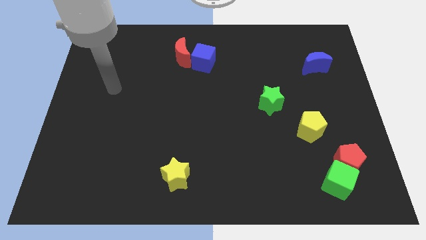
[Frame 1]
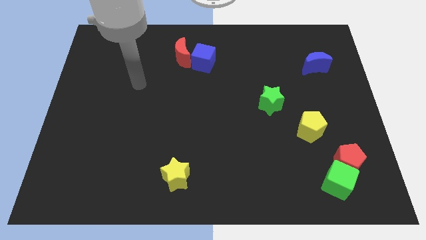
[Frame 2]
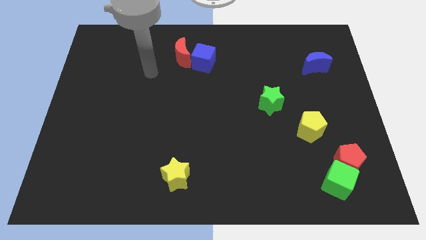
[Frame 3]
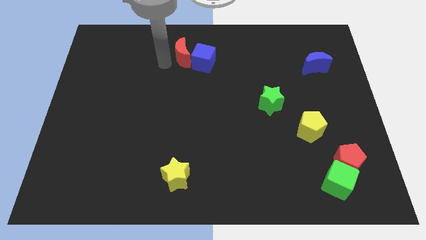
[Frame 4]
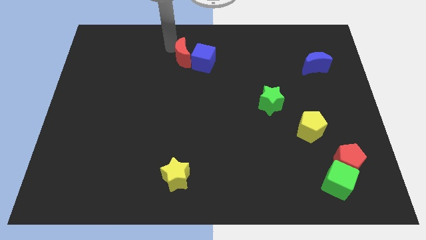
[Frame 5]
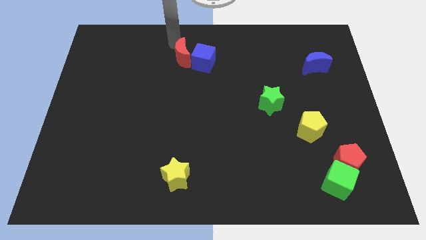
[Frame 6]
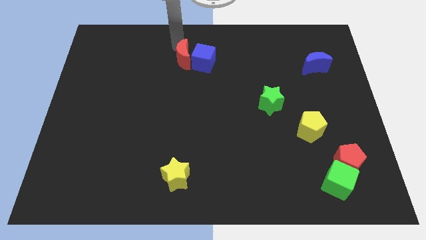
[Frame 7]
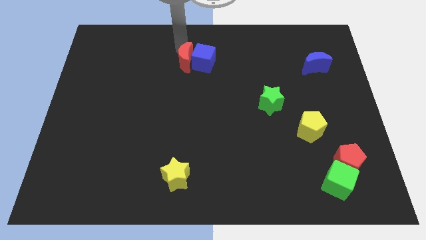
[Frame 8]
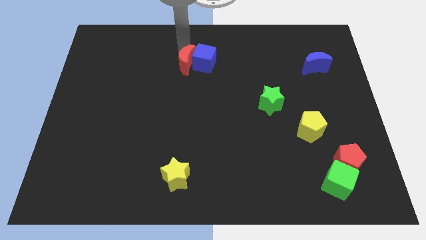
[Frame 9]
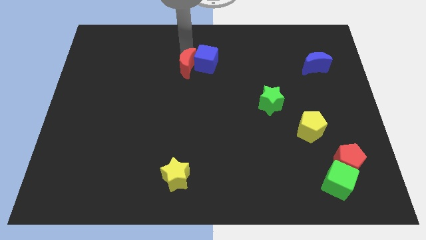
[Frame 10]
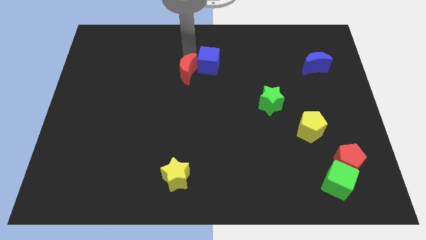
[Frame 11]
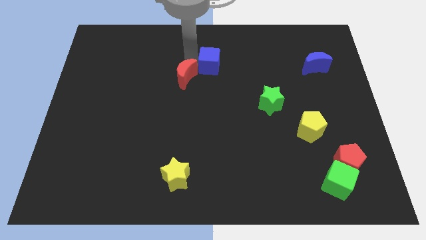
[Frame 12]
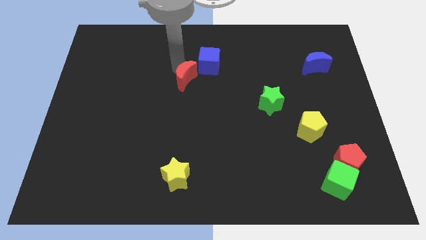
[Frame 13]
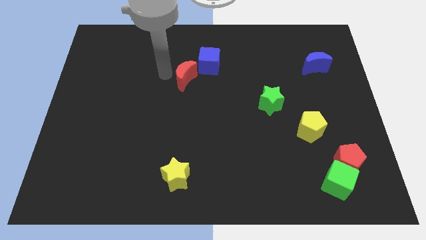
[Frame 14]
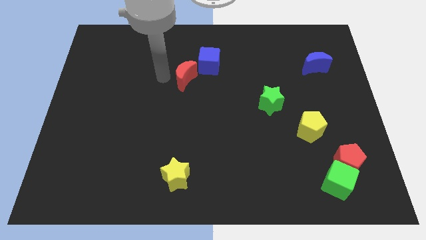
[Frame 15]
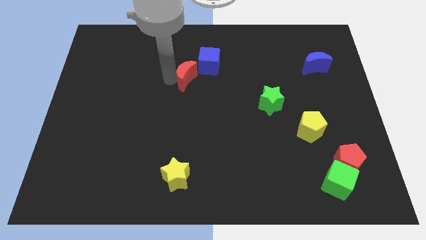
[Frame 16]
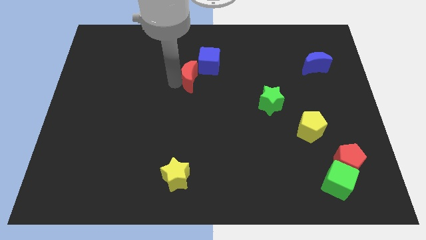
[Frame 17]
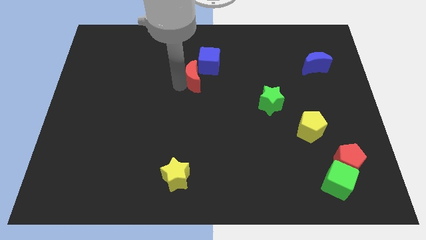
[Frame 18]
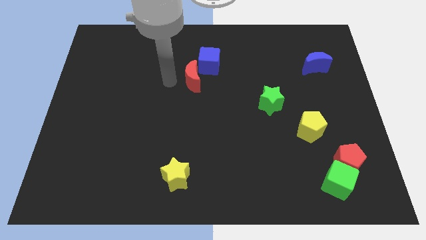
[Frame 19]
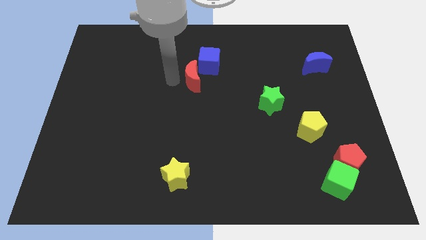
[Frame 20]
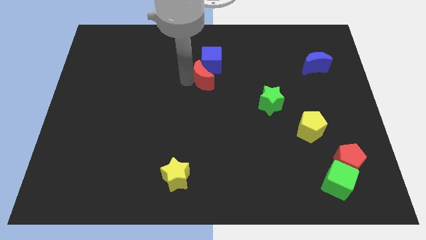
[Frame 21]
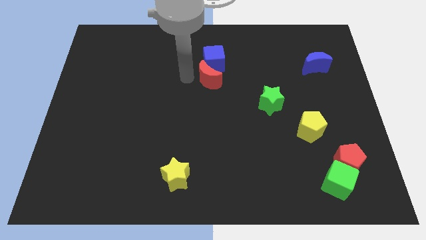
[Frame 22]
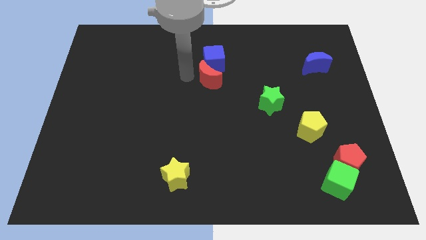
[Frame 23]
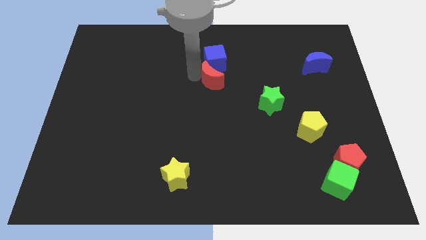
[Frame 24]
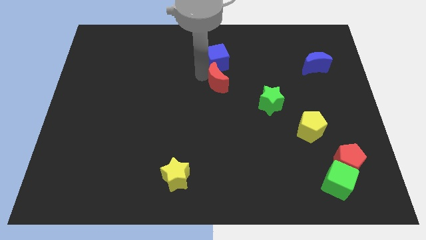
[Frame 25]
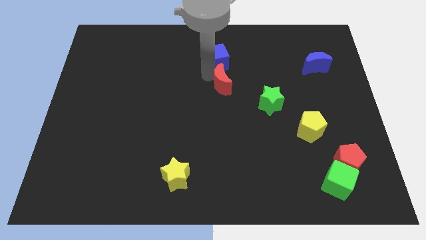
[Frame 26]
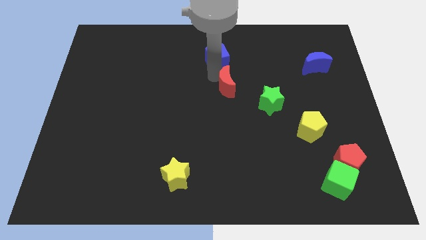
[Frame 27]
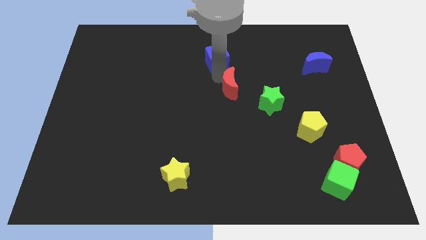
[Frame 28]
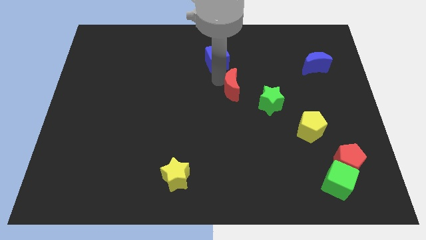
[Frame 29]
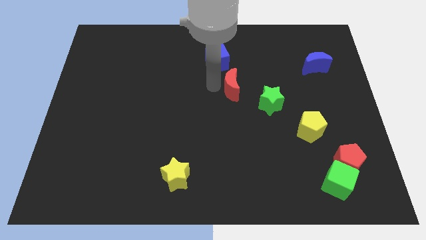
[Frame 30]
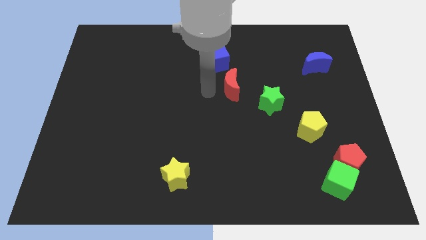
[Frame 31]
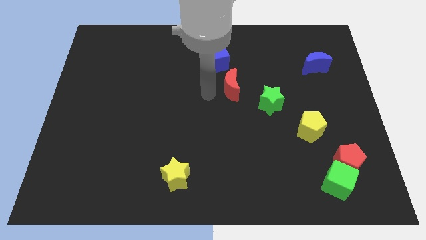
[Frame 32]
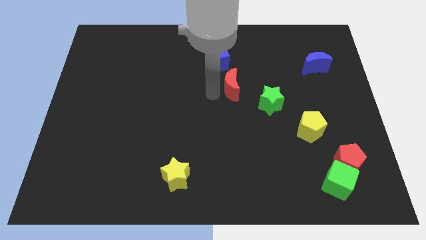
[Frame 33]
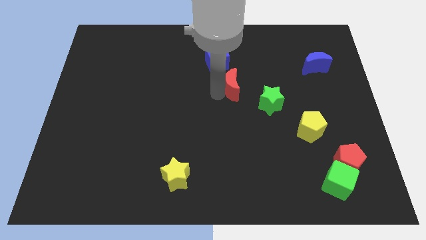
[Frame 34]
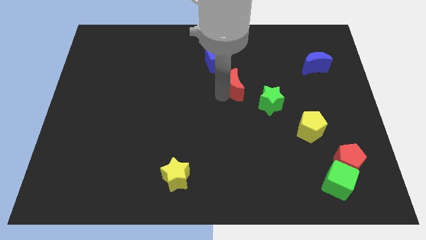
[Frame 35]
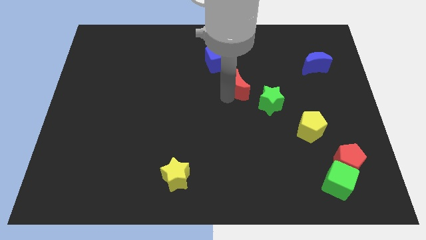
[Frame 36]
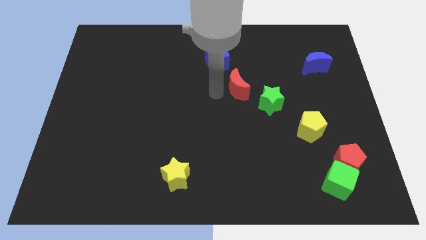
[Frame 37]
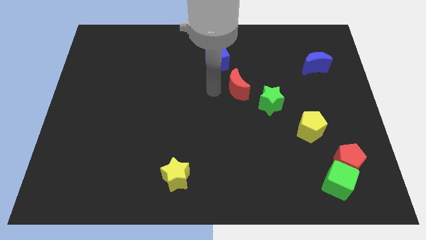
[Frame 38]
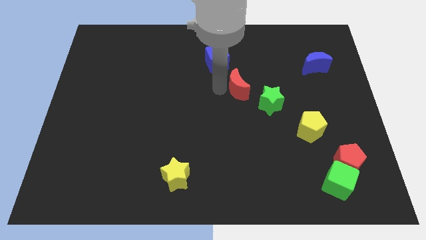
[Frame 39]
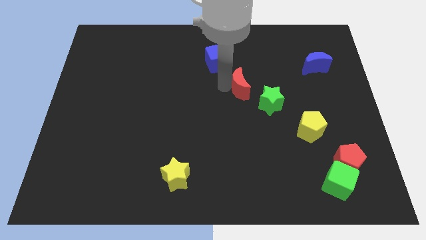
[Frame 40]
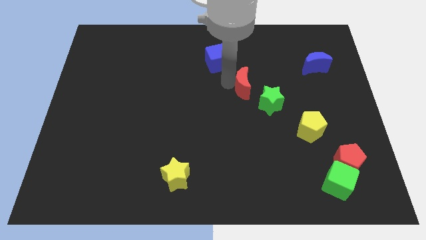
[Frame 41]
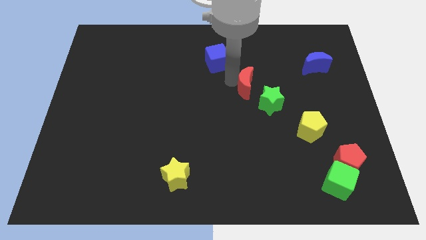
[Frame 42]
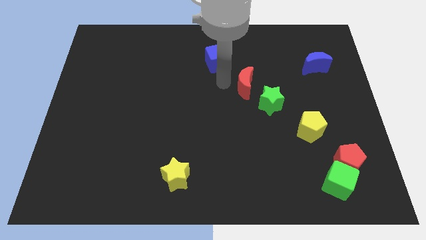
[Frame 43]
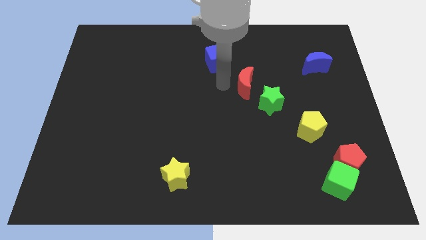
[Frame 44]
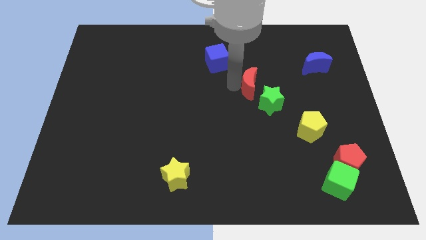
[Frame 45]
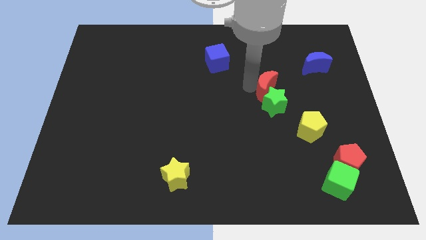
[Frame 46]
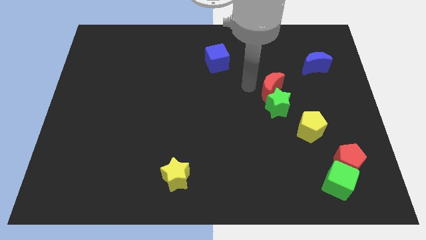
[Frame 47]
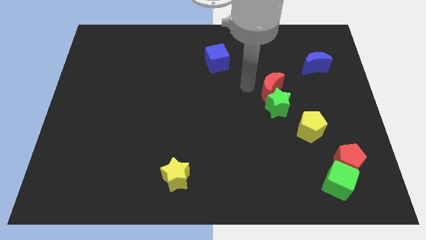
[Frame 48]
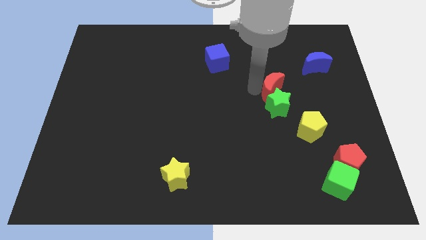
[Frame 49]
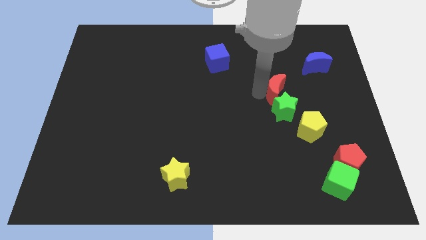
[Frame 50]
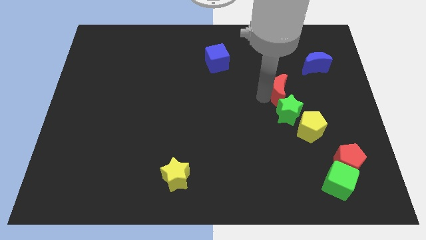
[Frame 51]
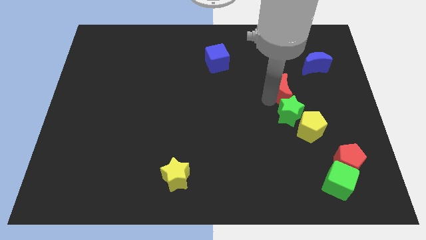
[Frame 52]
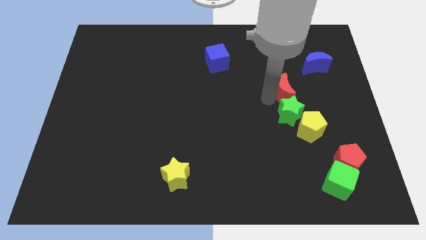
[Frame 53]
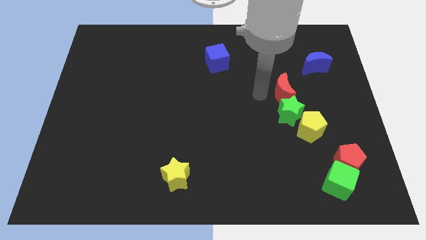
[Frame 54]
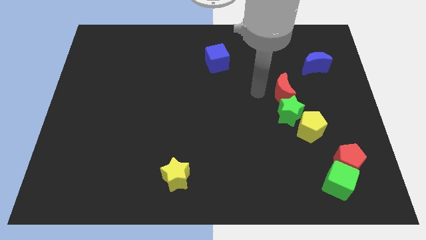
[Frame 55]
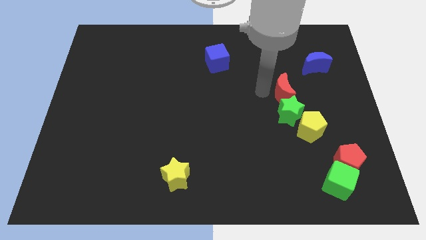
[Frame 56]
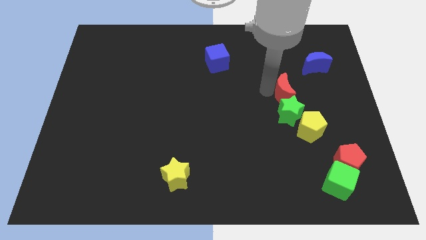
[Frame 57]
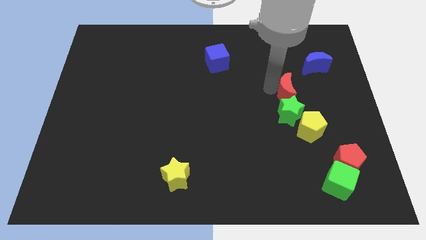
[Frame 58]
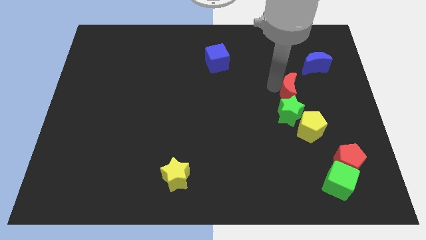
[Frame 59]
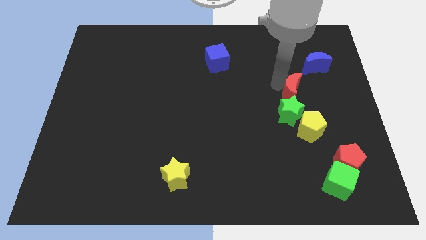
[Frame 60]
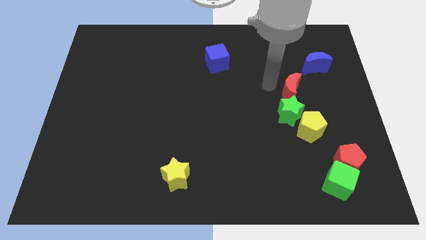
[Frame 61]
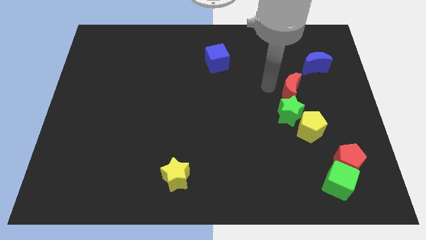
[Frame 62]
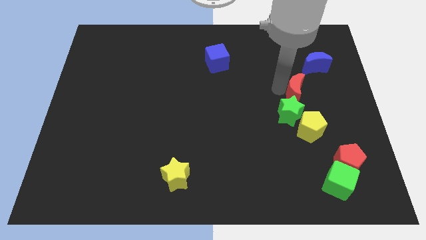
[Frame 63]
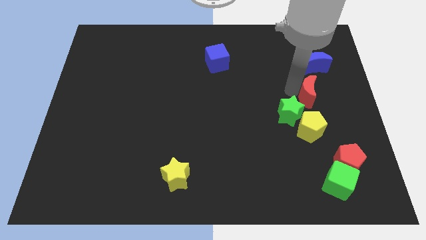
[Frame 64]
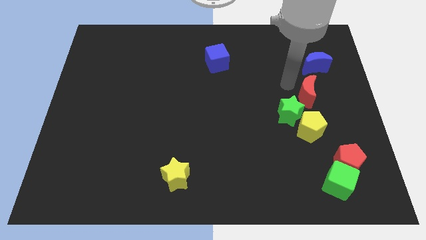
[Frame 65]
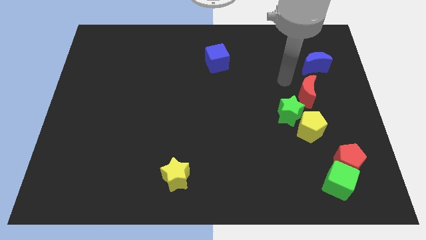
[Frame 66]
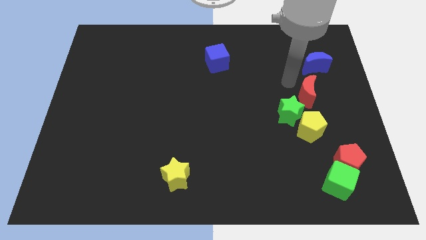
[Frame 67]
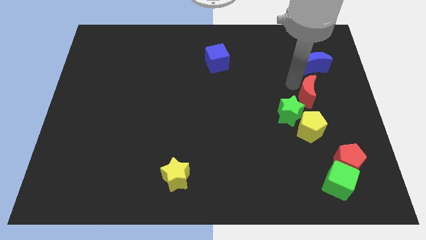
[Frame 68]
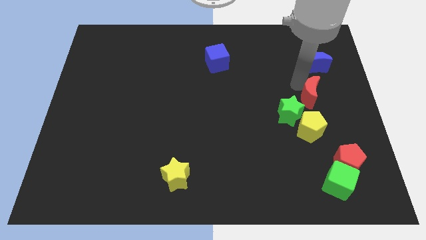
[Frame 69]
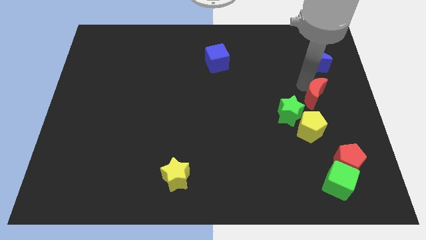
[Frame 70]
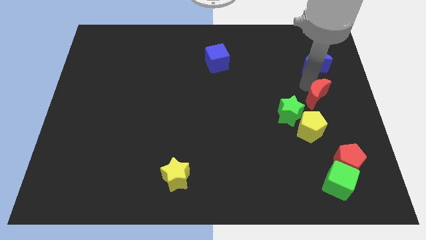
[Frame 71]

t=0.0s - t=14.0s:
slide the red moon to the top right of the yellow pentagon
